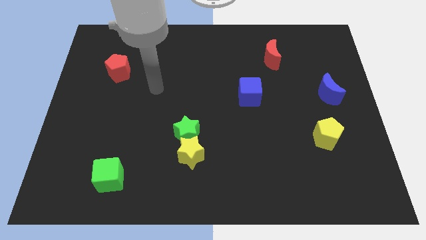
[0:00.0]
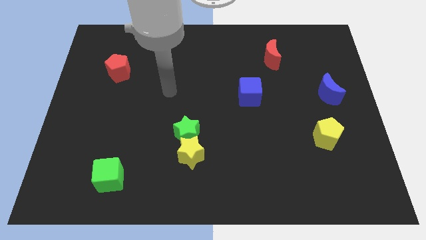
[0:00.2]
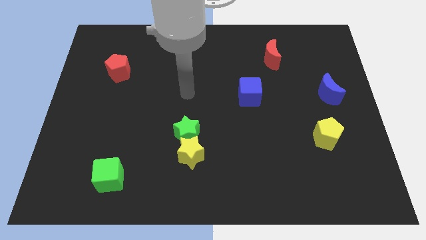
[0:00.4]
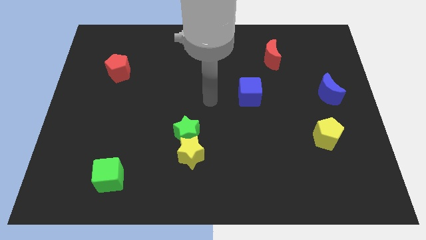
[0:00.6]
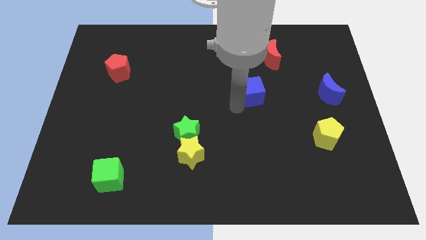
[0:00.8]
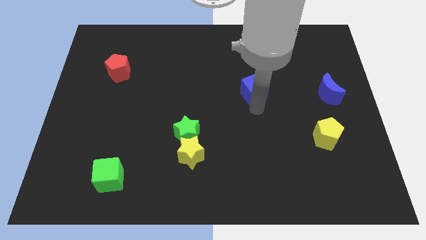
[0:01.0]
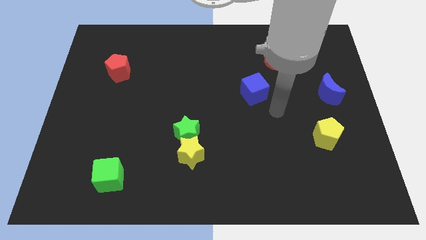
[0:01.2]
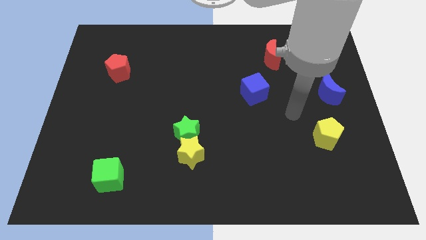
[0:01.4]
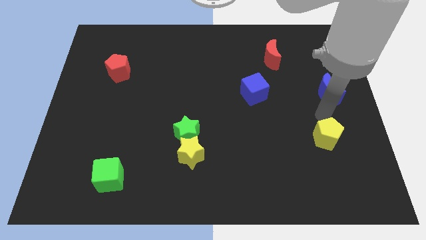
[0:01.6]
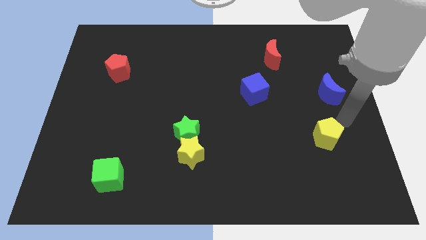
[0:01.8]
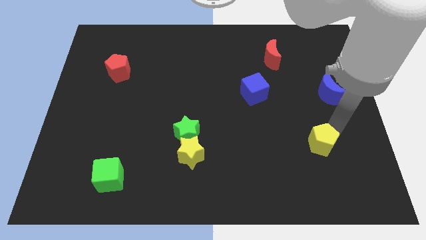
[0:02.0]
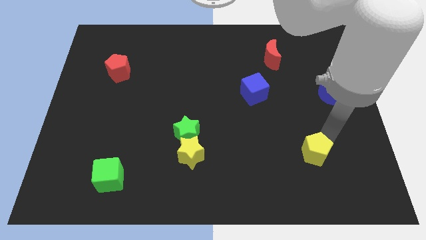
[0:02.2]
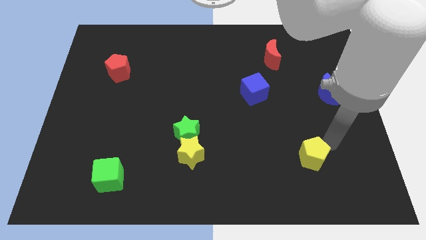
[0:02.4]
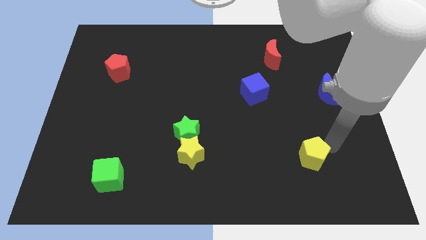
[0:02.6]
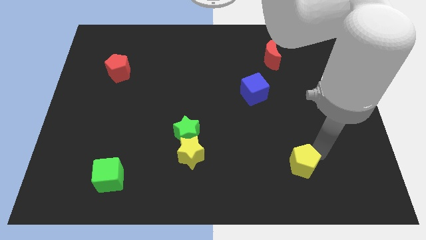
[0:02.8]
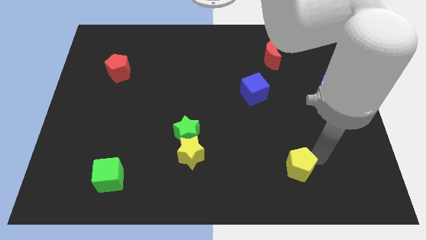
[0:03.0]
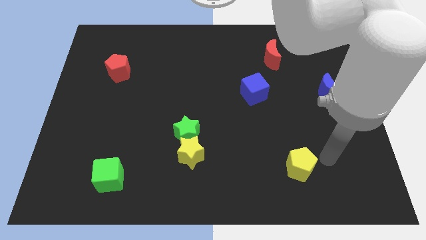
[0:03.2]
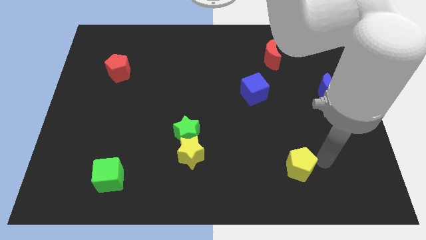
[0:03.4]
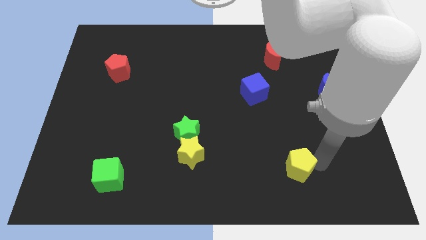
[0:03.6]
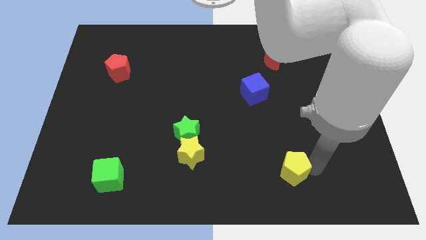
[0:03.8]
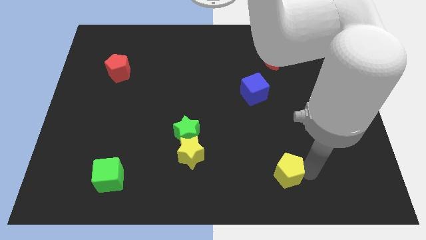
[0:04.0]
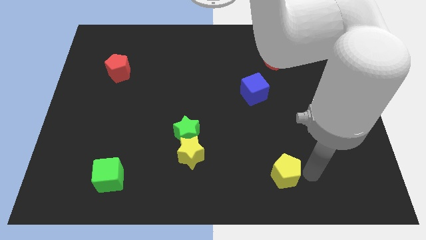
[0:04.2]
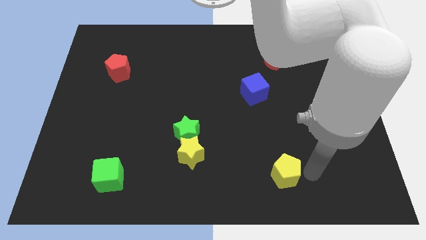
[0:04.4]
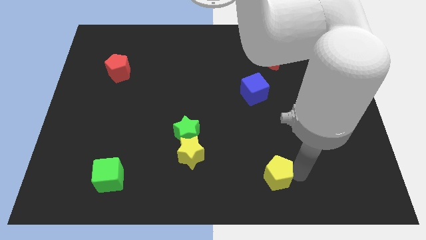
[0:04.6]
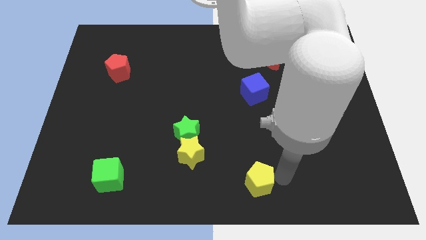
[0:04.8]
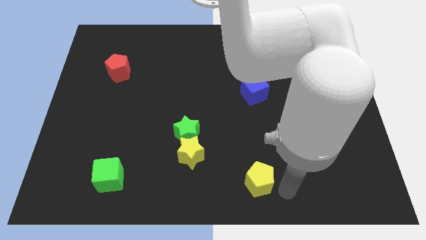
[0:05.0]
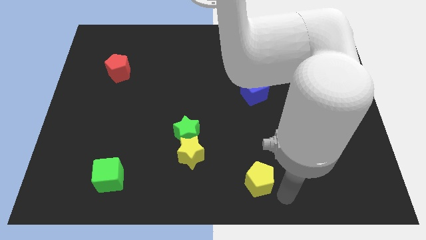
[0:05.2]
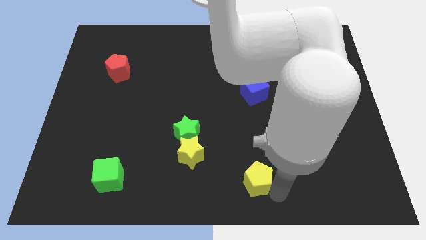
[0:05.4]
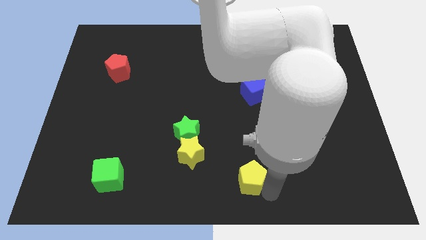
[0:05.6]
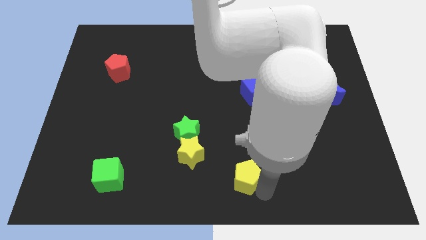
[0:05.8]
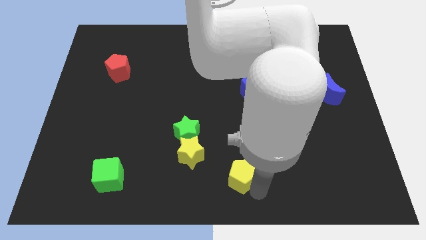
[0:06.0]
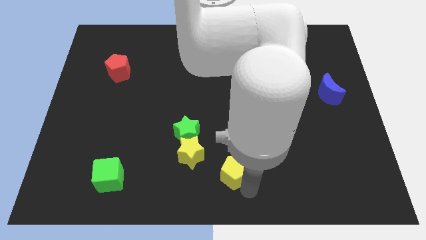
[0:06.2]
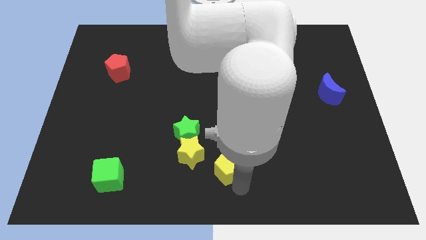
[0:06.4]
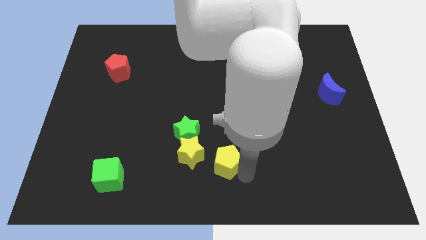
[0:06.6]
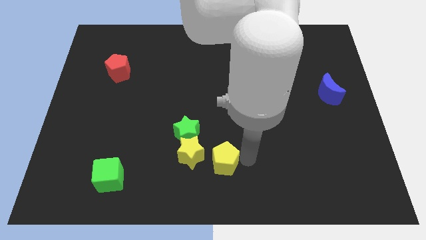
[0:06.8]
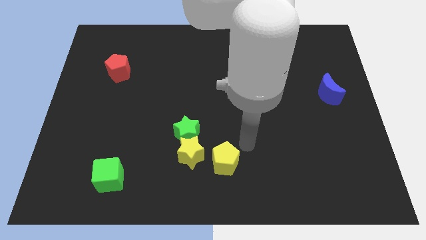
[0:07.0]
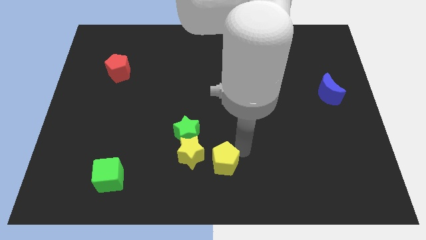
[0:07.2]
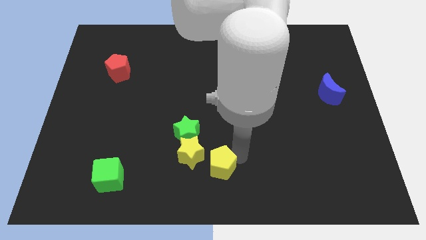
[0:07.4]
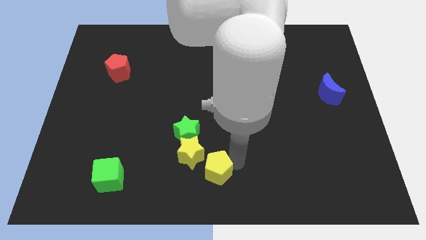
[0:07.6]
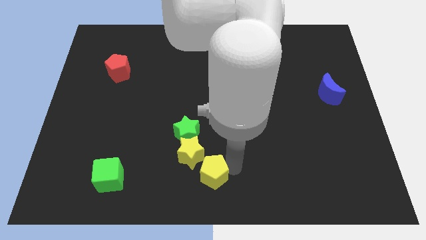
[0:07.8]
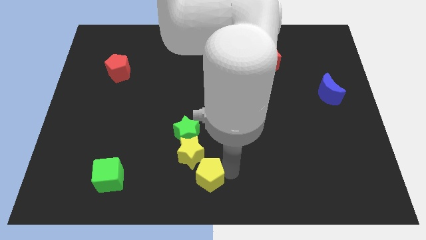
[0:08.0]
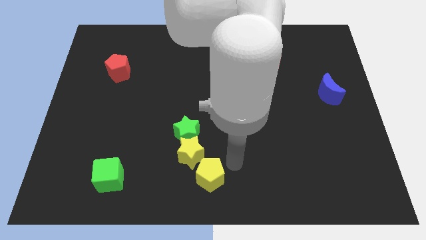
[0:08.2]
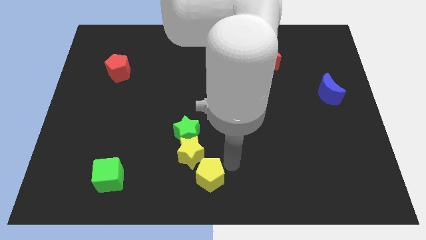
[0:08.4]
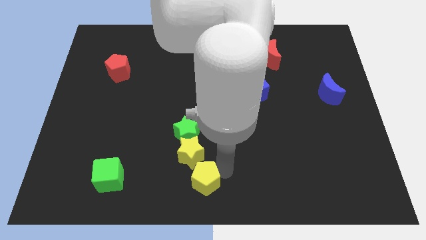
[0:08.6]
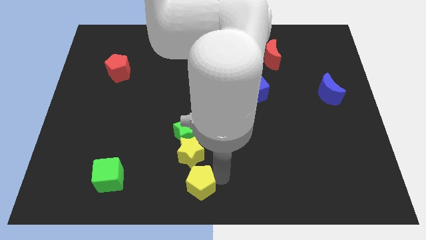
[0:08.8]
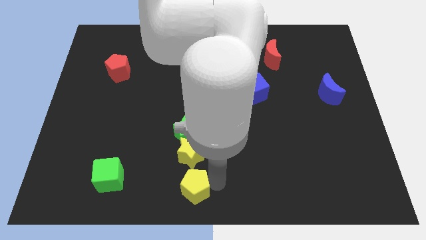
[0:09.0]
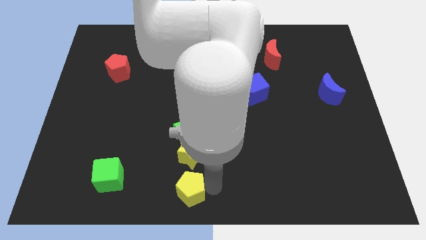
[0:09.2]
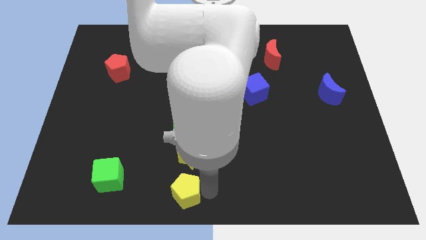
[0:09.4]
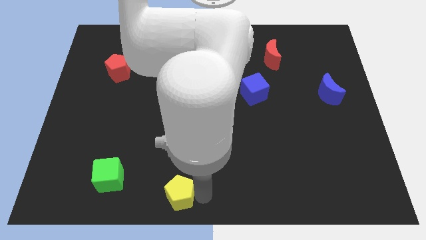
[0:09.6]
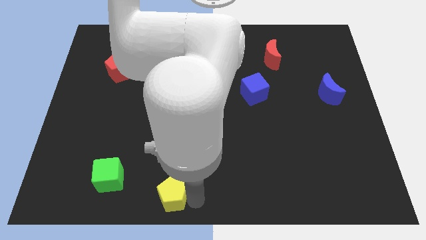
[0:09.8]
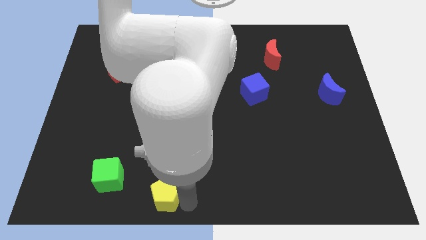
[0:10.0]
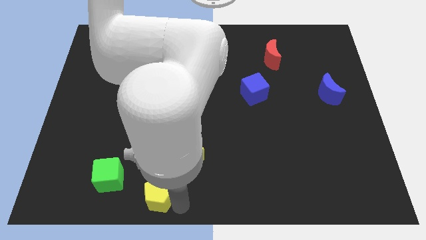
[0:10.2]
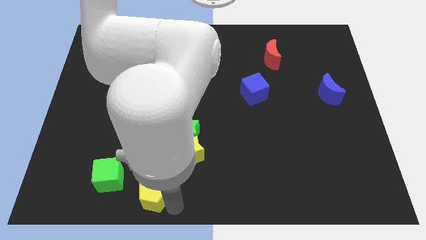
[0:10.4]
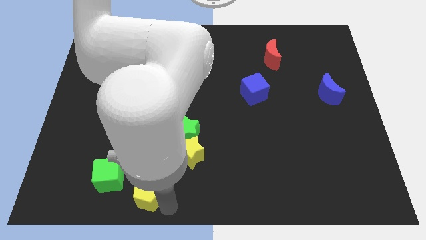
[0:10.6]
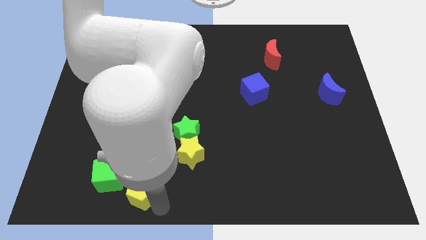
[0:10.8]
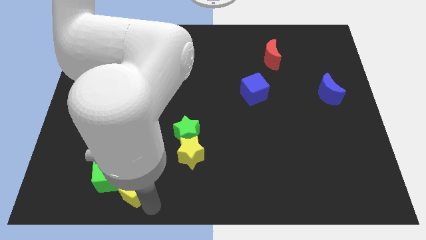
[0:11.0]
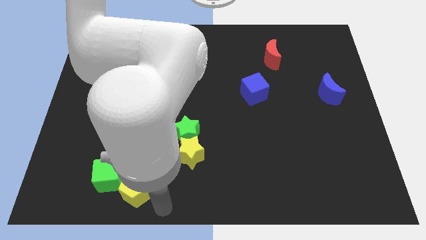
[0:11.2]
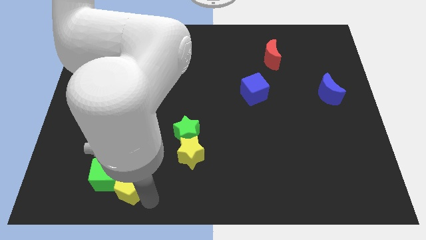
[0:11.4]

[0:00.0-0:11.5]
slide the yellow pentagon towards the green cube

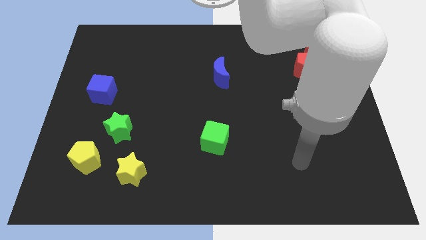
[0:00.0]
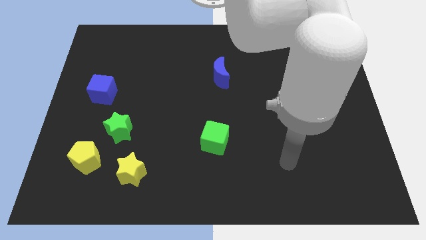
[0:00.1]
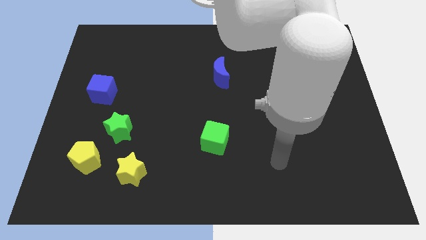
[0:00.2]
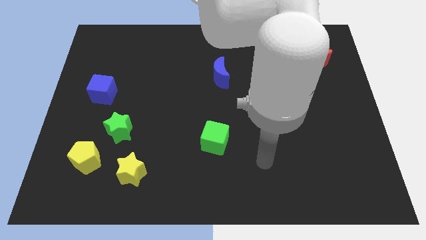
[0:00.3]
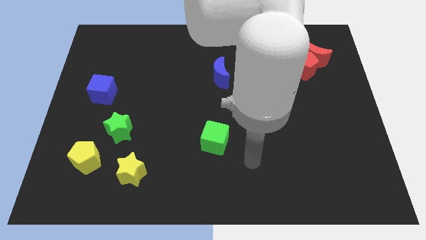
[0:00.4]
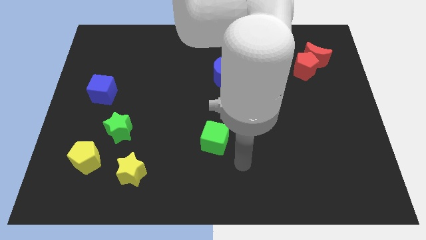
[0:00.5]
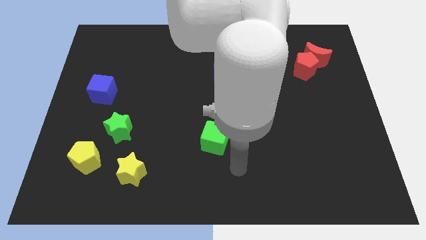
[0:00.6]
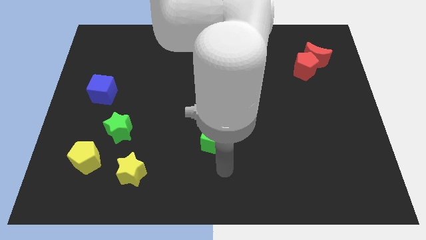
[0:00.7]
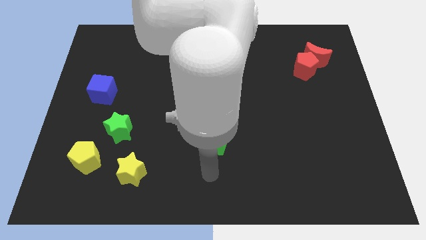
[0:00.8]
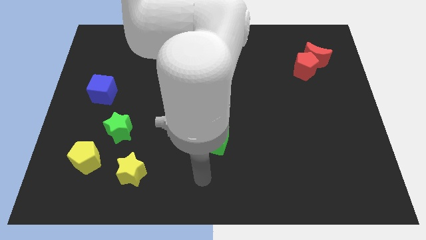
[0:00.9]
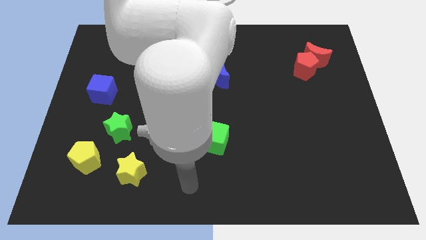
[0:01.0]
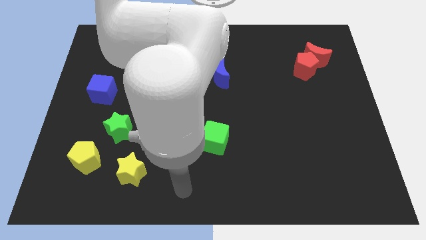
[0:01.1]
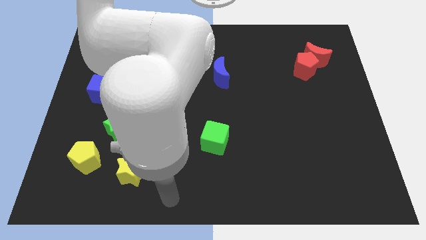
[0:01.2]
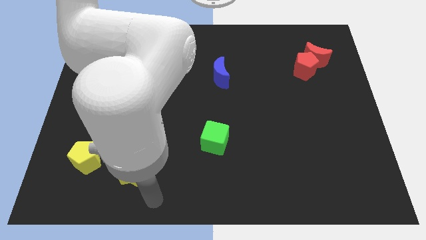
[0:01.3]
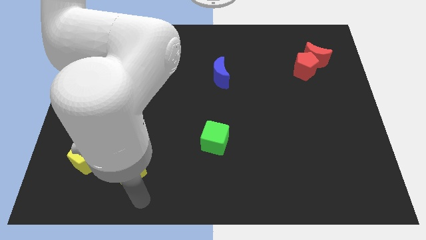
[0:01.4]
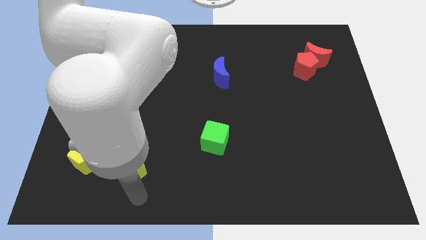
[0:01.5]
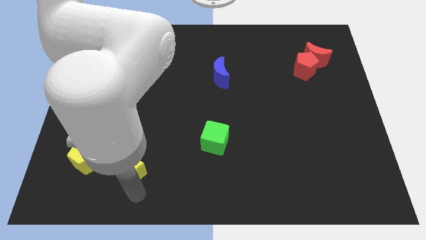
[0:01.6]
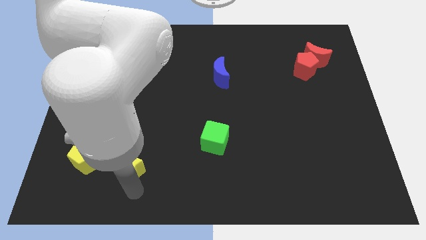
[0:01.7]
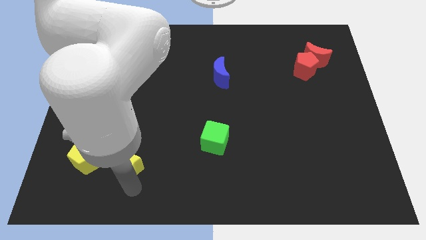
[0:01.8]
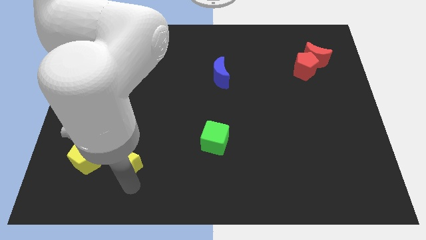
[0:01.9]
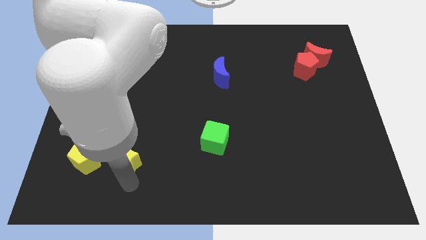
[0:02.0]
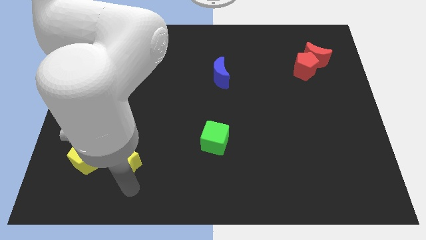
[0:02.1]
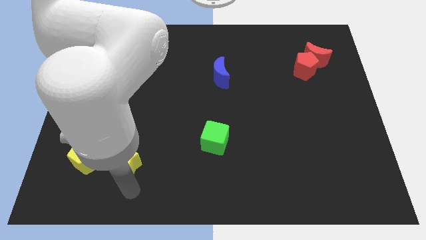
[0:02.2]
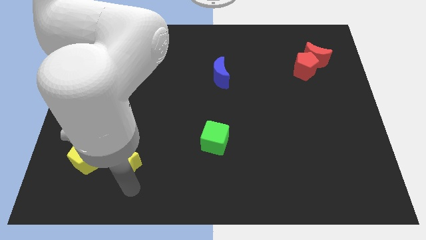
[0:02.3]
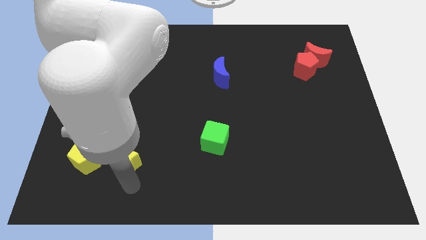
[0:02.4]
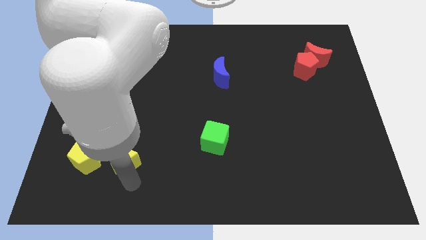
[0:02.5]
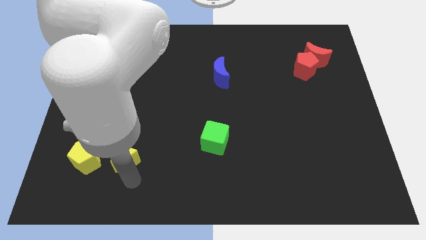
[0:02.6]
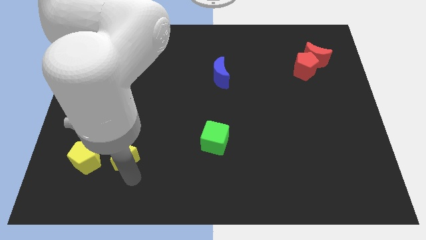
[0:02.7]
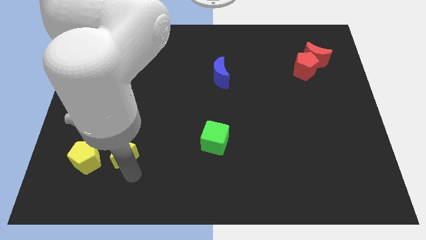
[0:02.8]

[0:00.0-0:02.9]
move the yellow star close to the green star
